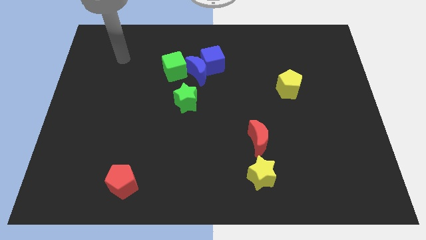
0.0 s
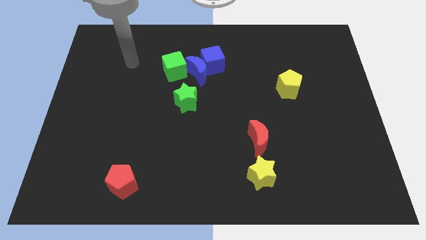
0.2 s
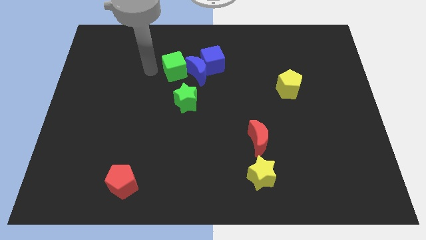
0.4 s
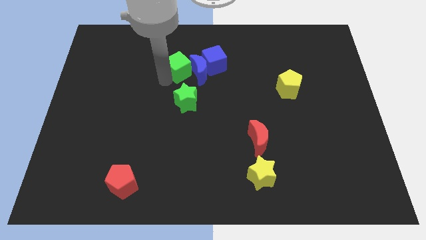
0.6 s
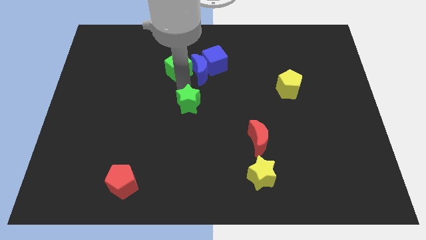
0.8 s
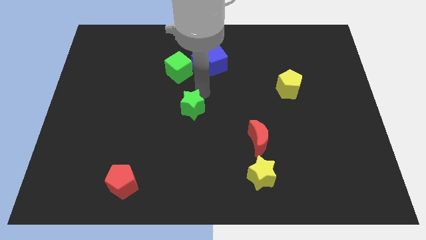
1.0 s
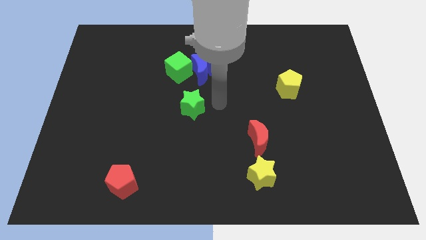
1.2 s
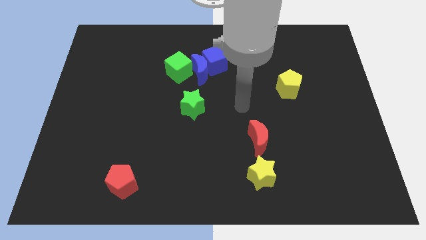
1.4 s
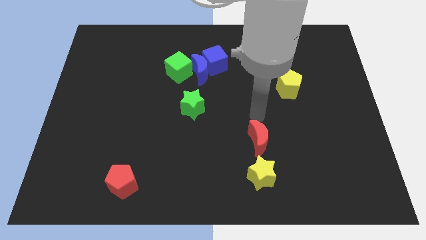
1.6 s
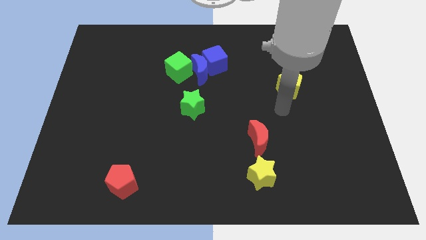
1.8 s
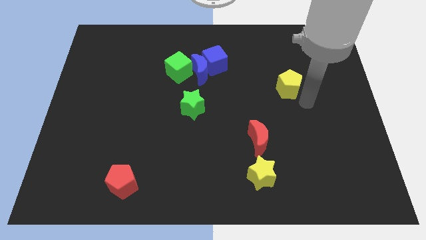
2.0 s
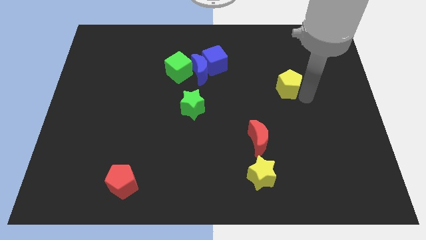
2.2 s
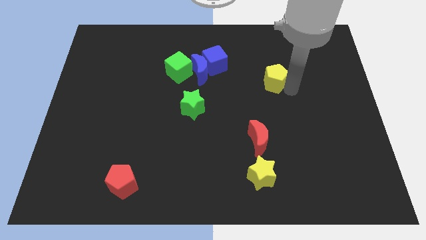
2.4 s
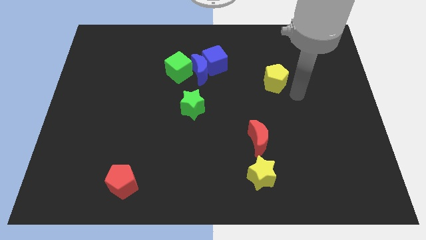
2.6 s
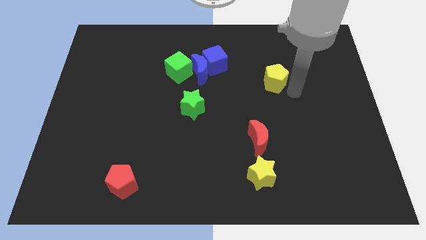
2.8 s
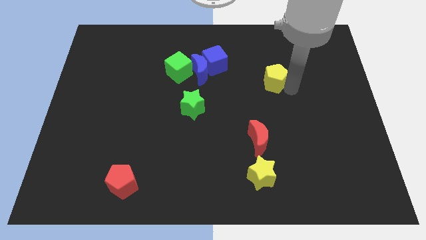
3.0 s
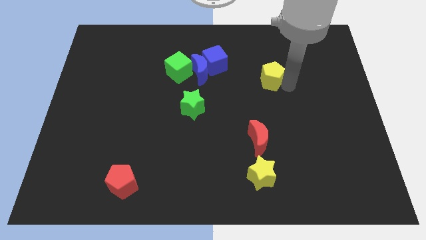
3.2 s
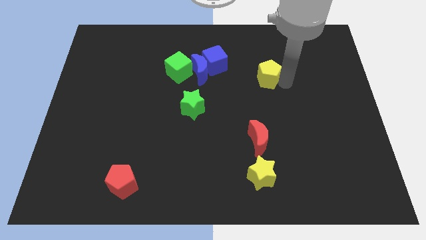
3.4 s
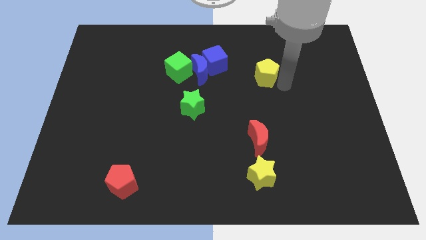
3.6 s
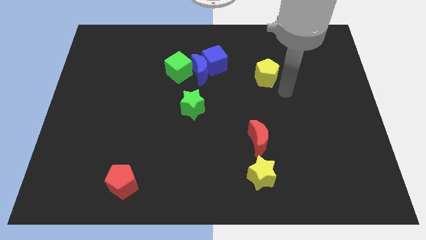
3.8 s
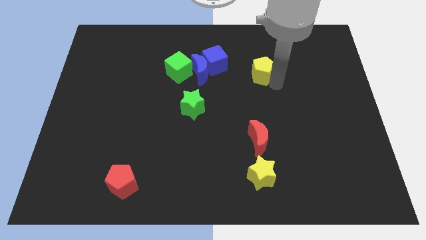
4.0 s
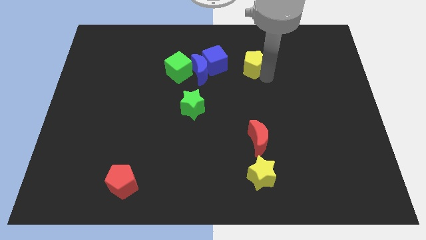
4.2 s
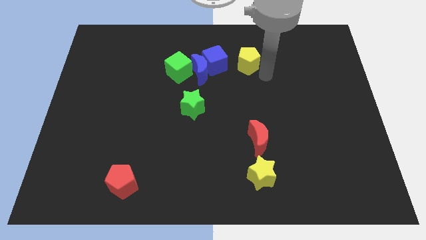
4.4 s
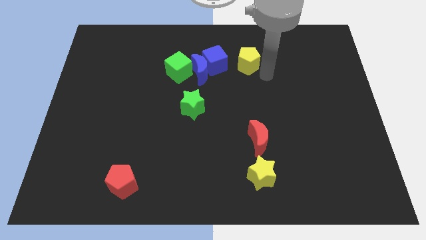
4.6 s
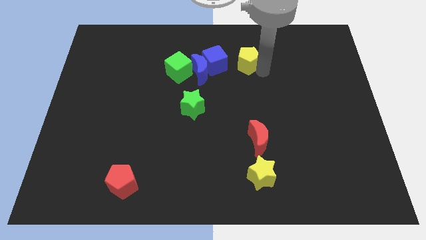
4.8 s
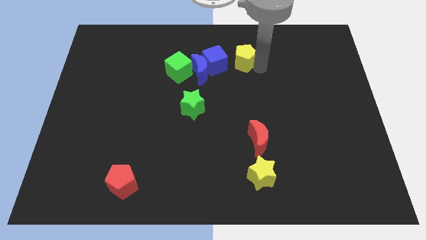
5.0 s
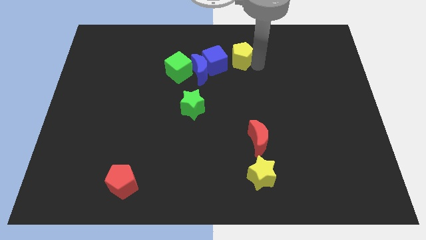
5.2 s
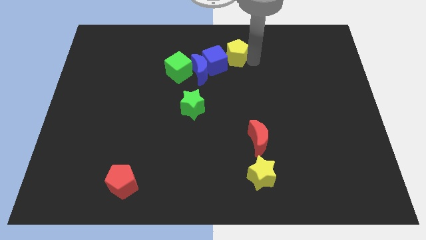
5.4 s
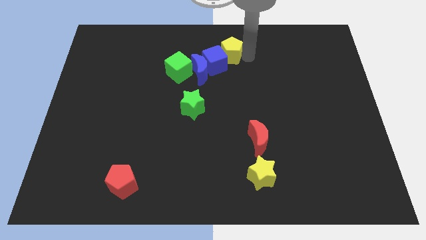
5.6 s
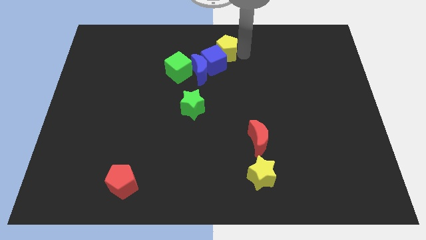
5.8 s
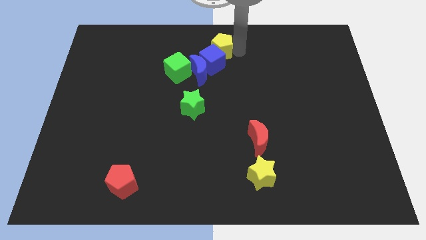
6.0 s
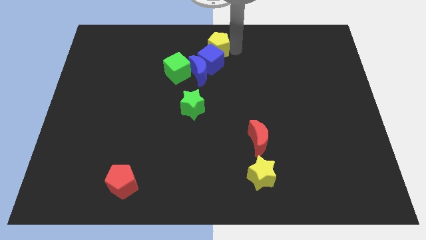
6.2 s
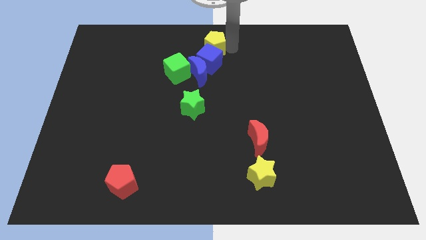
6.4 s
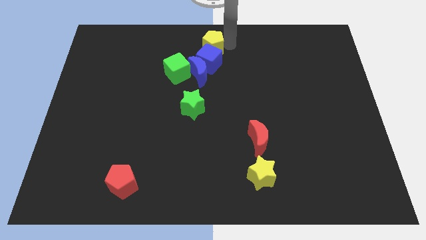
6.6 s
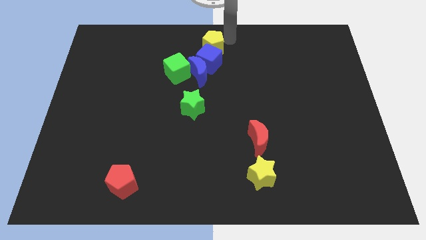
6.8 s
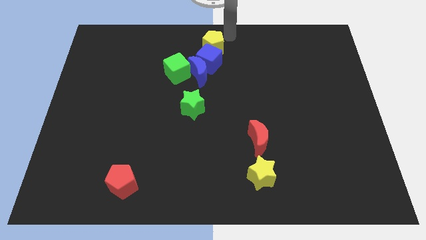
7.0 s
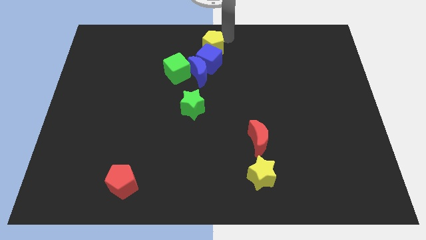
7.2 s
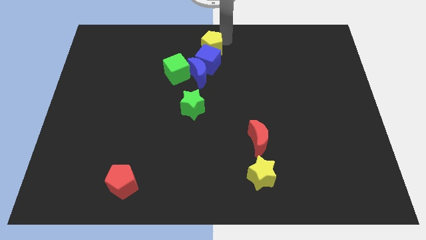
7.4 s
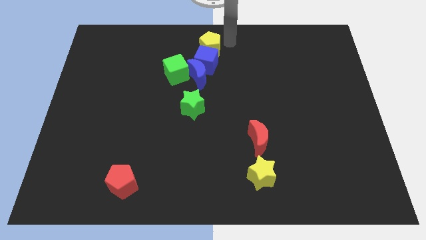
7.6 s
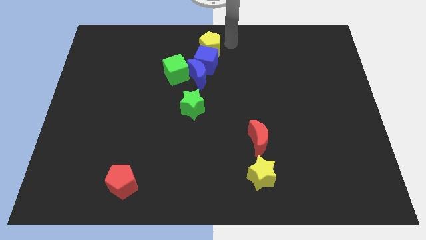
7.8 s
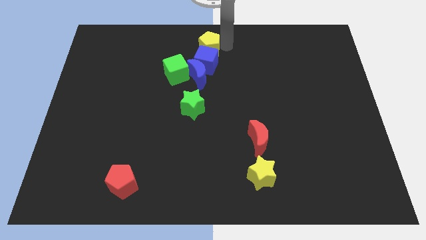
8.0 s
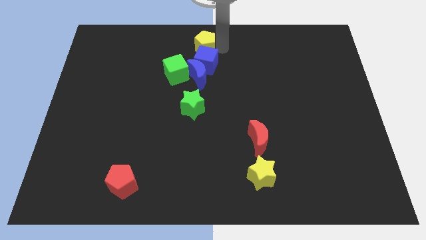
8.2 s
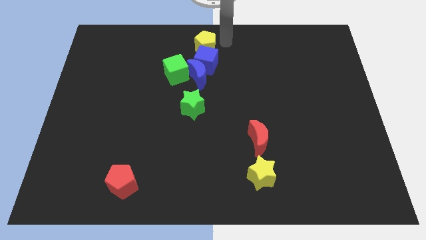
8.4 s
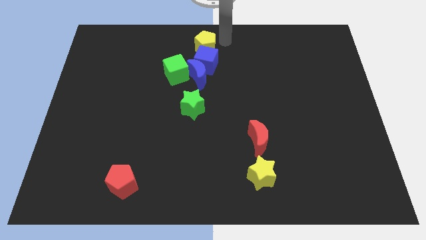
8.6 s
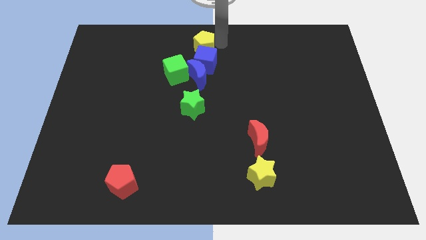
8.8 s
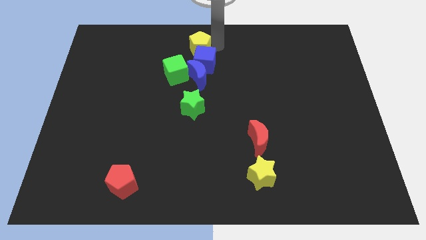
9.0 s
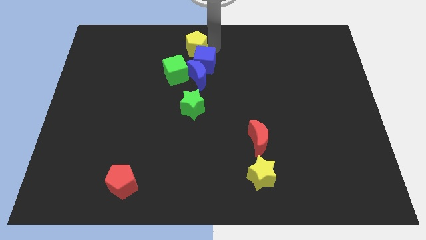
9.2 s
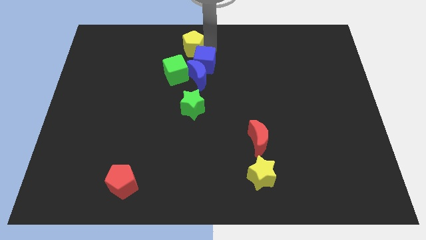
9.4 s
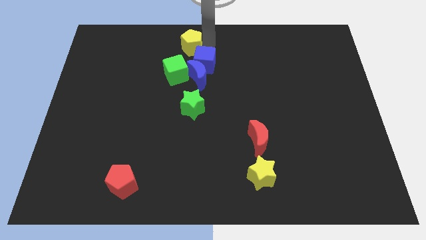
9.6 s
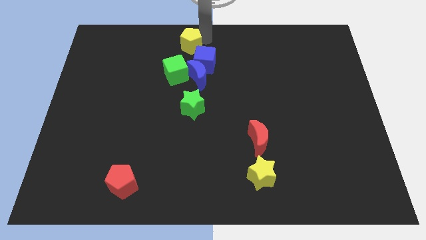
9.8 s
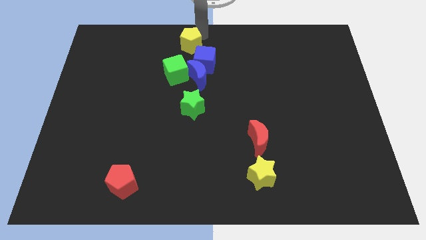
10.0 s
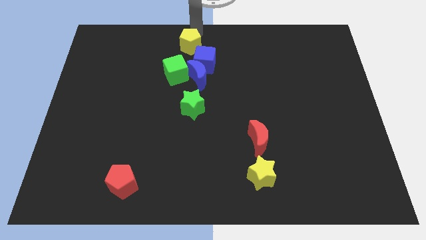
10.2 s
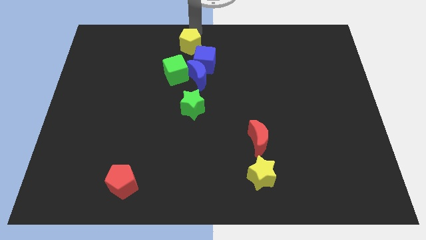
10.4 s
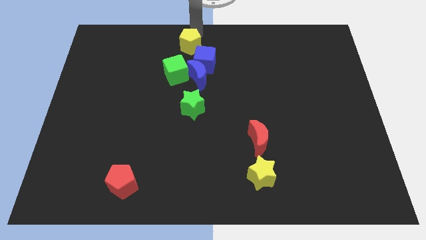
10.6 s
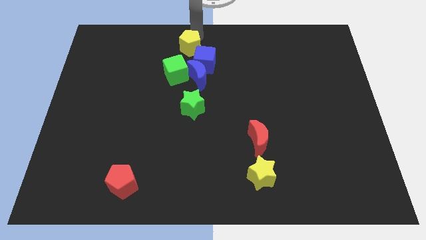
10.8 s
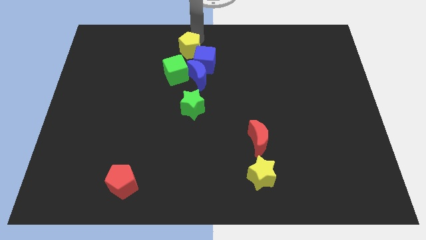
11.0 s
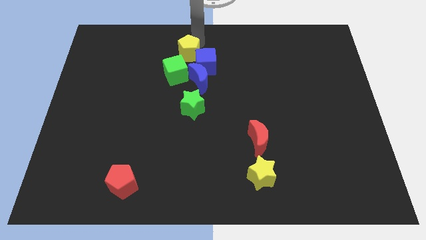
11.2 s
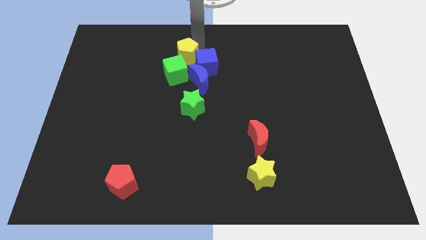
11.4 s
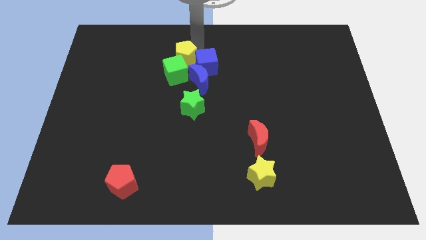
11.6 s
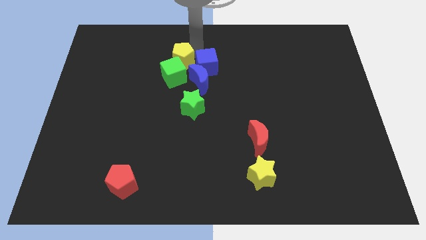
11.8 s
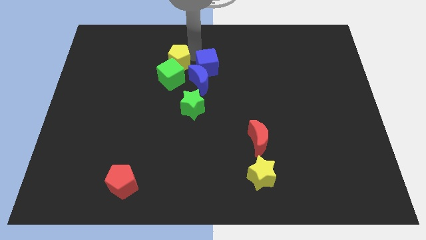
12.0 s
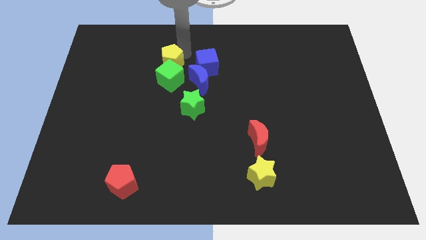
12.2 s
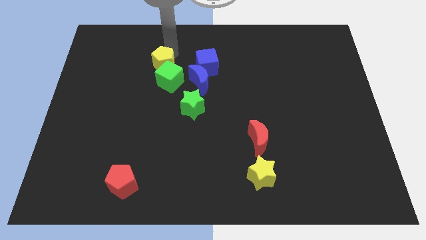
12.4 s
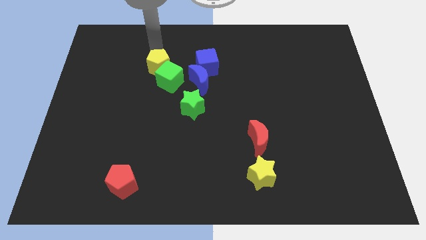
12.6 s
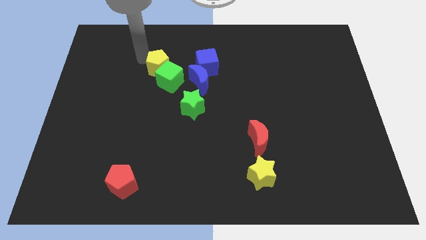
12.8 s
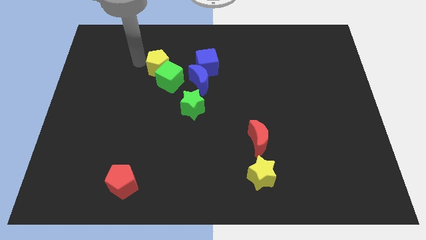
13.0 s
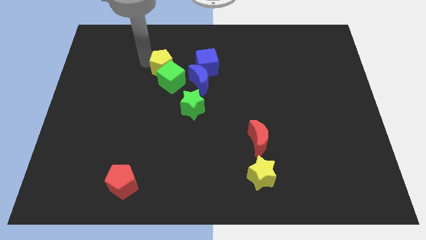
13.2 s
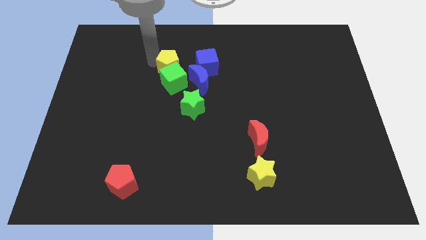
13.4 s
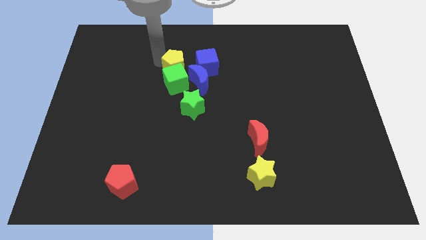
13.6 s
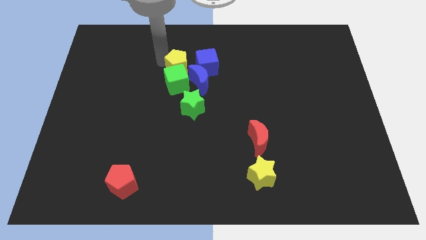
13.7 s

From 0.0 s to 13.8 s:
slide the yellow pentagon to the top side of the green star

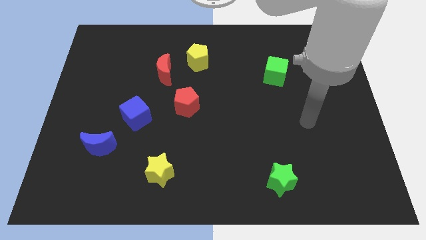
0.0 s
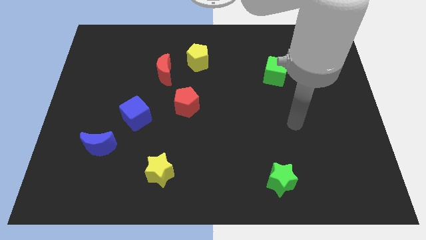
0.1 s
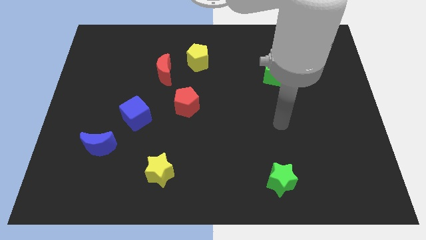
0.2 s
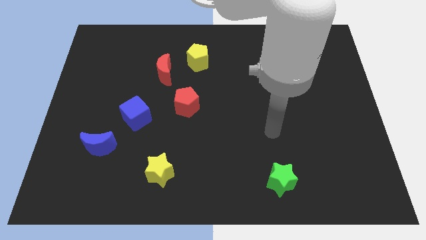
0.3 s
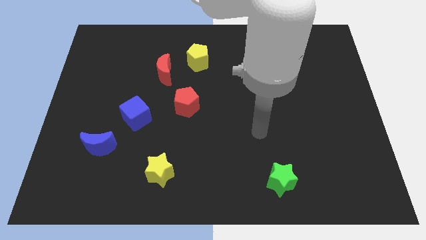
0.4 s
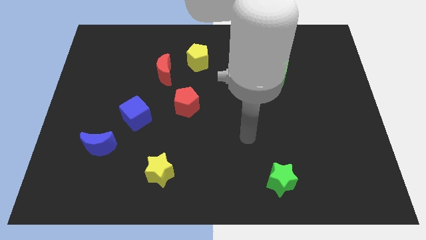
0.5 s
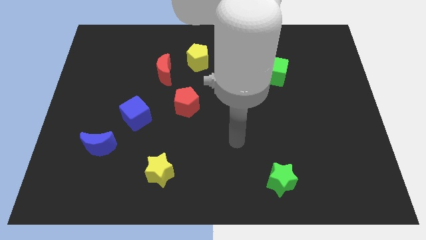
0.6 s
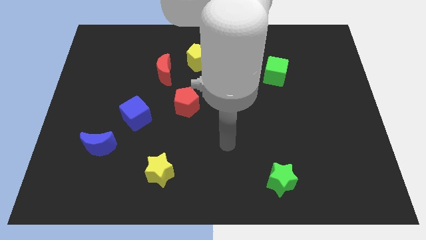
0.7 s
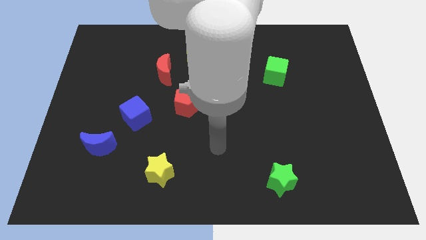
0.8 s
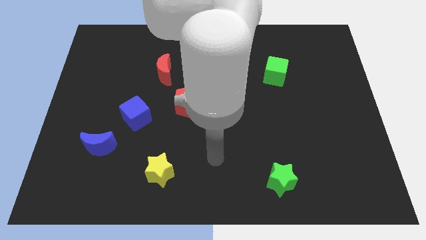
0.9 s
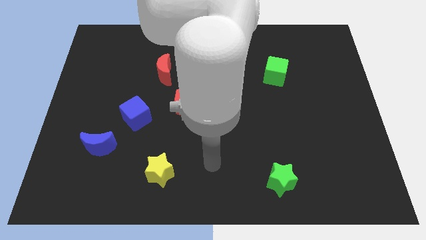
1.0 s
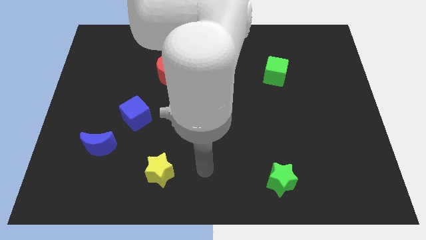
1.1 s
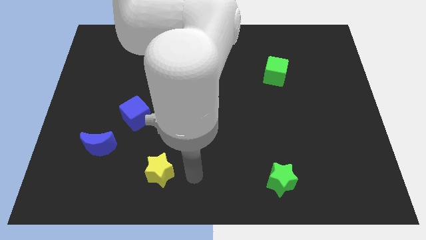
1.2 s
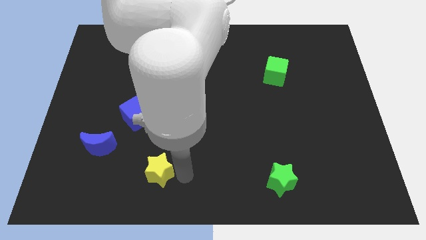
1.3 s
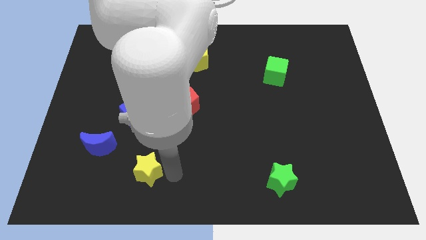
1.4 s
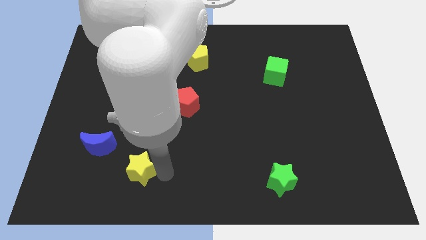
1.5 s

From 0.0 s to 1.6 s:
move the yellow star diagonally down and to the right of the blue moon
